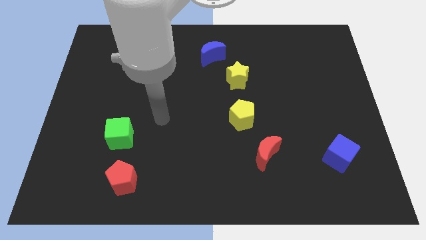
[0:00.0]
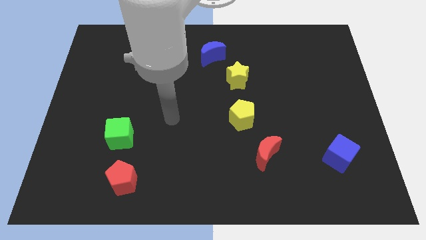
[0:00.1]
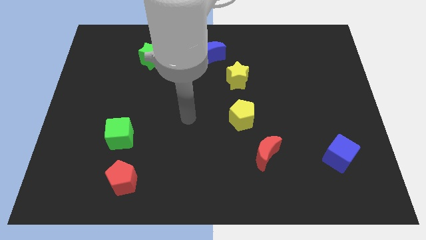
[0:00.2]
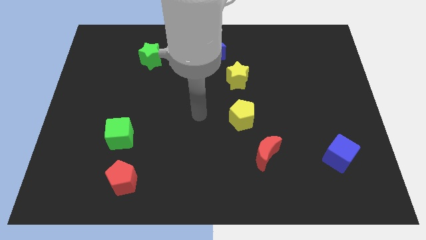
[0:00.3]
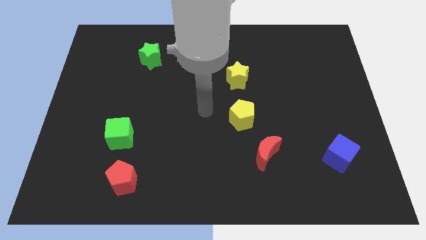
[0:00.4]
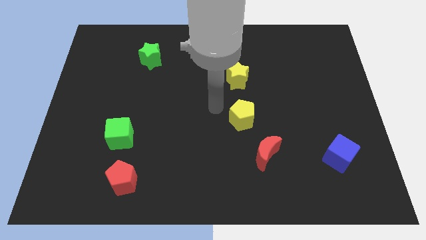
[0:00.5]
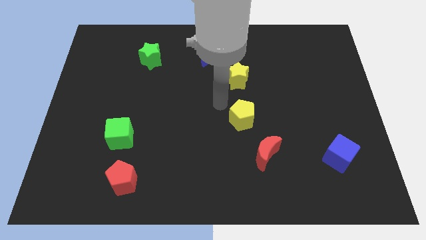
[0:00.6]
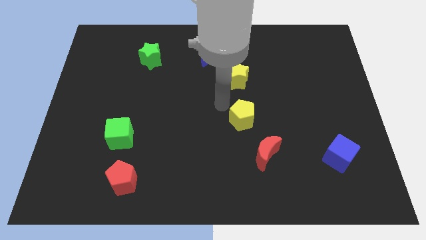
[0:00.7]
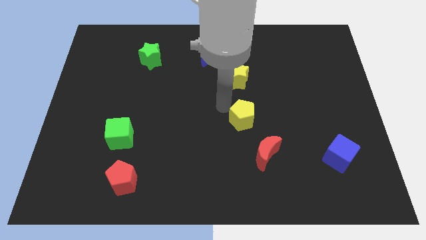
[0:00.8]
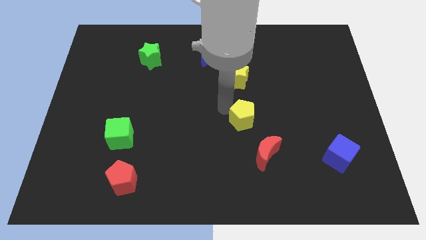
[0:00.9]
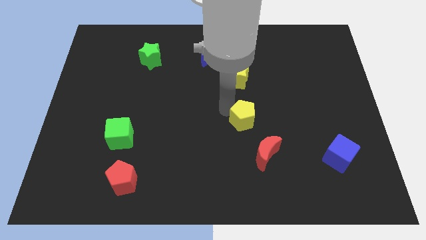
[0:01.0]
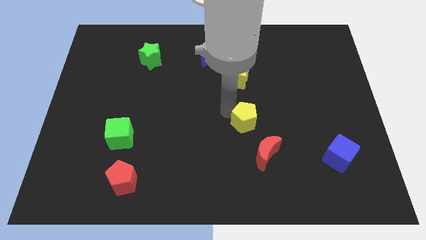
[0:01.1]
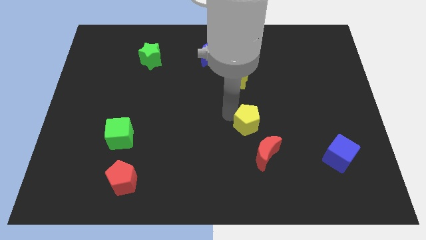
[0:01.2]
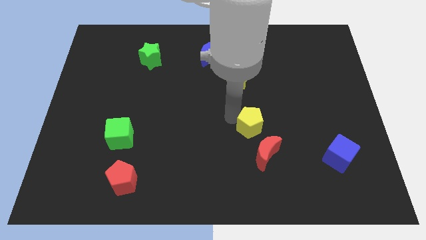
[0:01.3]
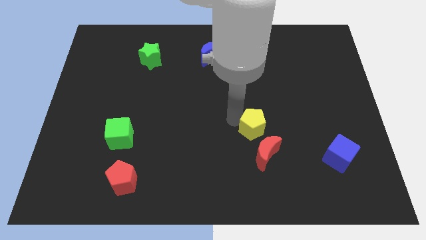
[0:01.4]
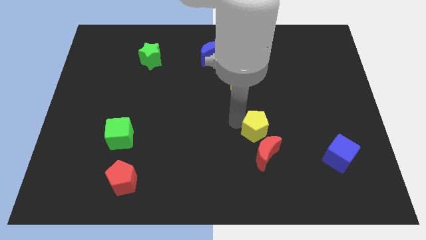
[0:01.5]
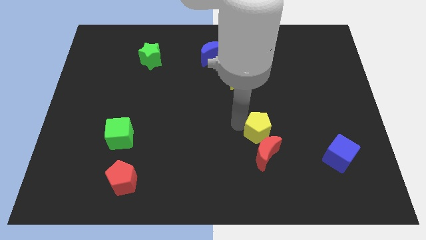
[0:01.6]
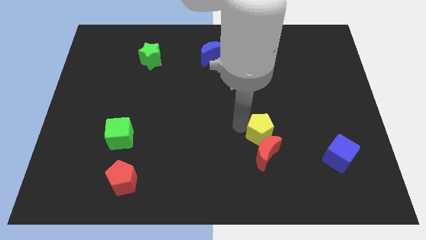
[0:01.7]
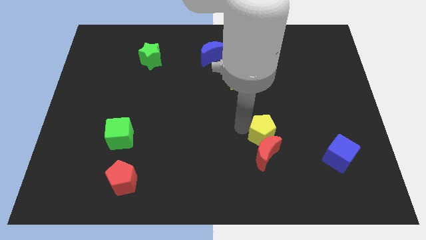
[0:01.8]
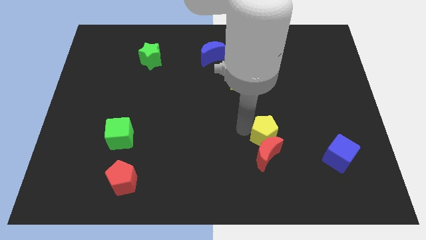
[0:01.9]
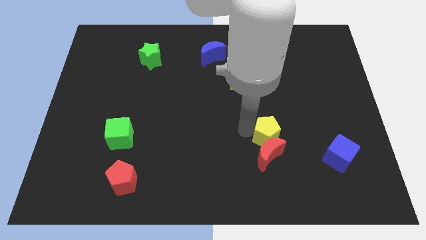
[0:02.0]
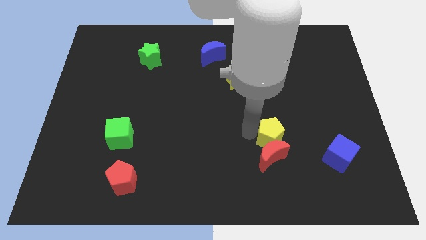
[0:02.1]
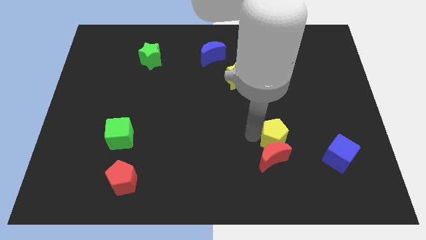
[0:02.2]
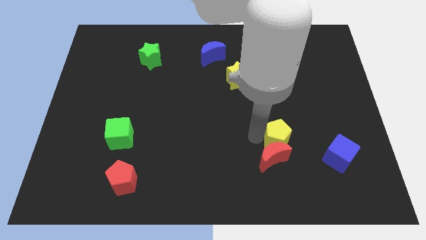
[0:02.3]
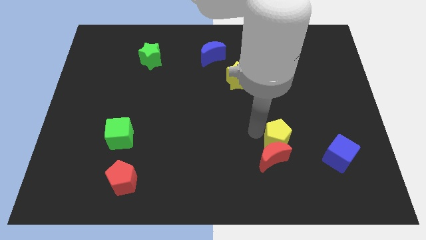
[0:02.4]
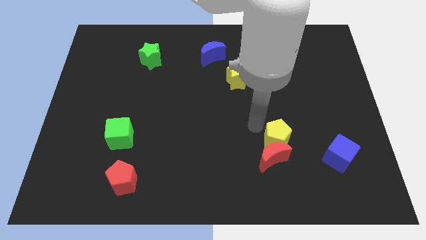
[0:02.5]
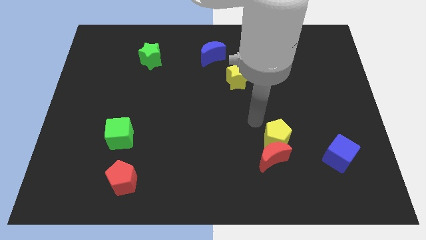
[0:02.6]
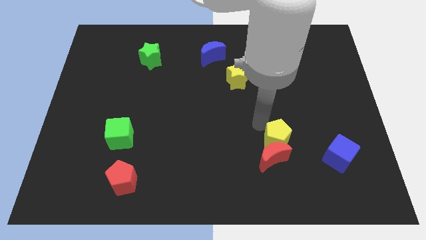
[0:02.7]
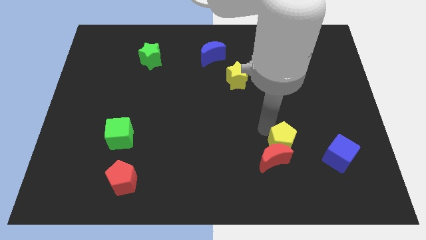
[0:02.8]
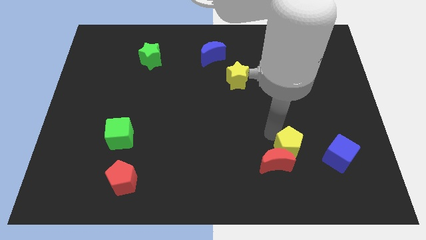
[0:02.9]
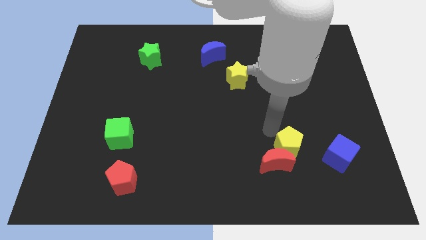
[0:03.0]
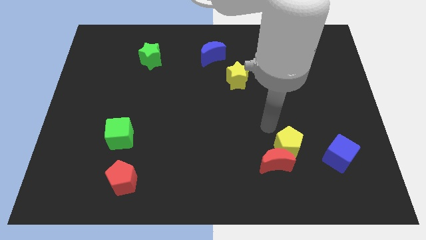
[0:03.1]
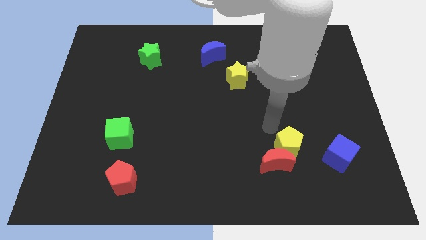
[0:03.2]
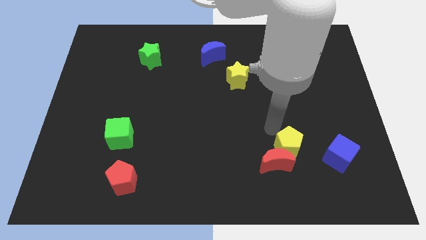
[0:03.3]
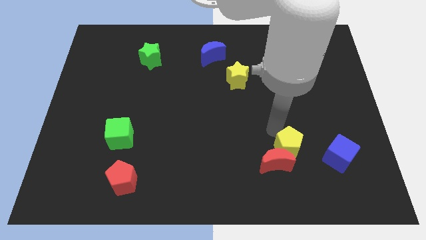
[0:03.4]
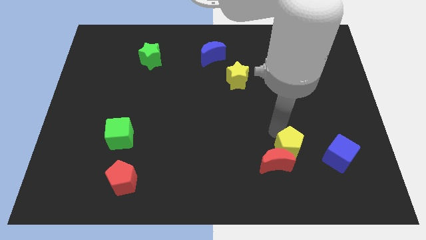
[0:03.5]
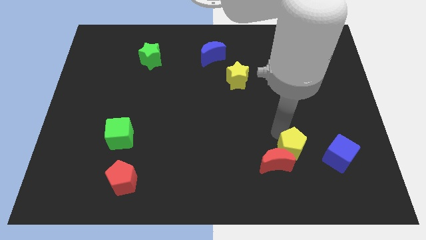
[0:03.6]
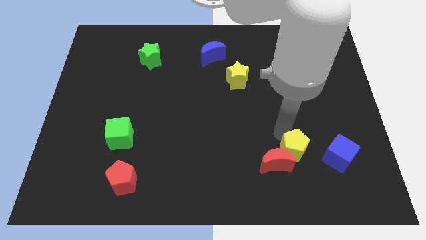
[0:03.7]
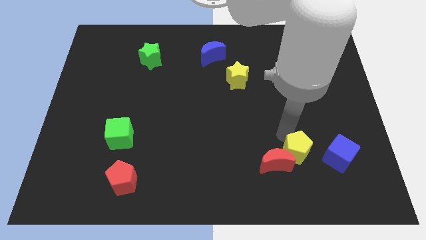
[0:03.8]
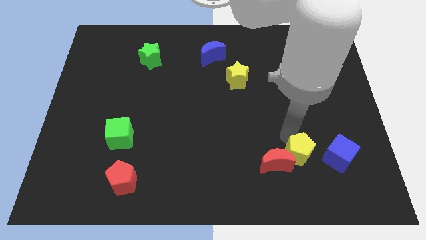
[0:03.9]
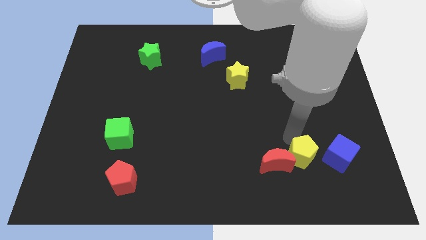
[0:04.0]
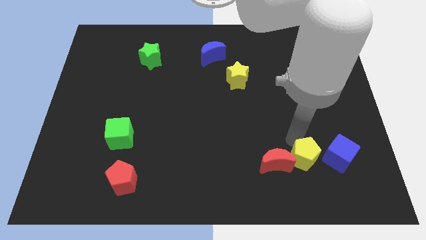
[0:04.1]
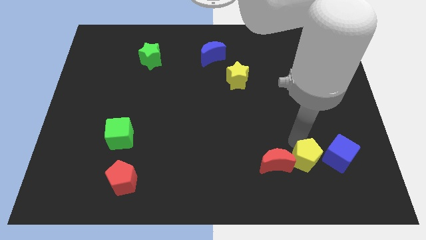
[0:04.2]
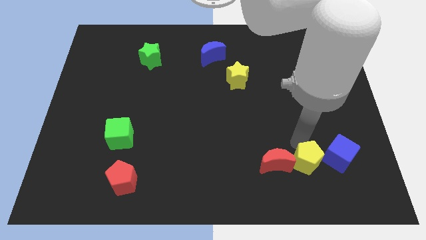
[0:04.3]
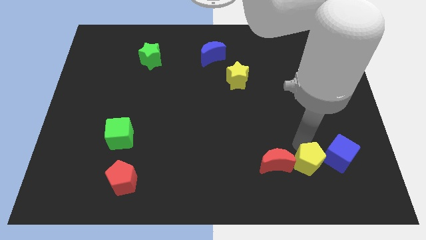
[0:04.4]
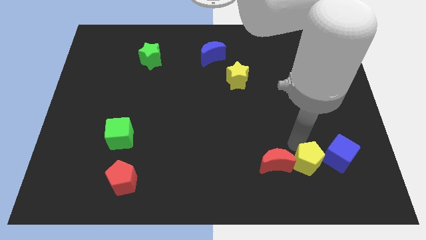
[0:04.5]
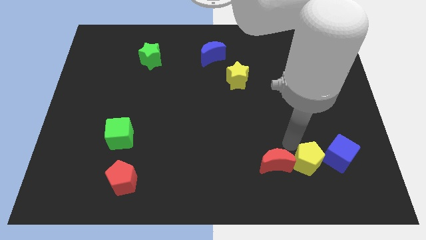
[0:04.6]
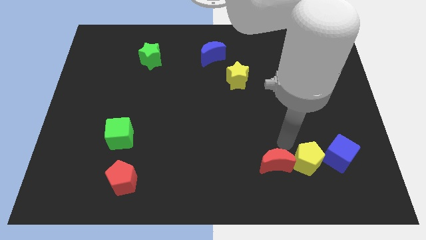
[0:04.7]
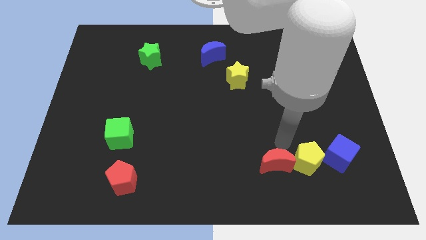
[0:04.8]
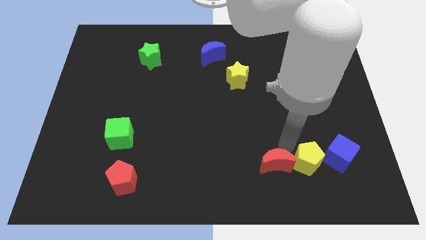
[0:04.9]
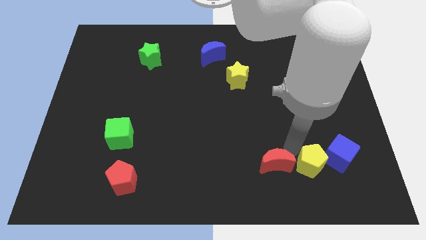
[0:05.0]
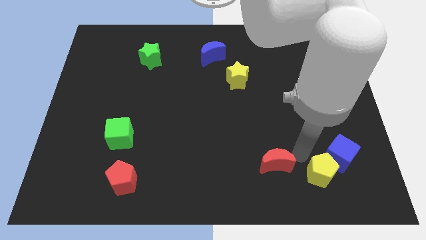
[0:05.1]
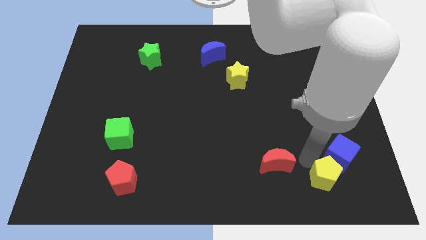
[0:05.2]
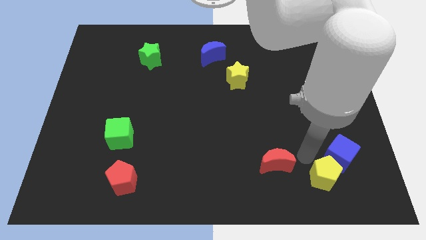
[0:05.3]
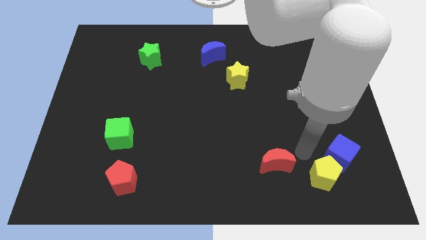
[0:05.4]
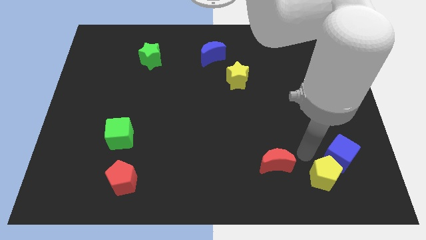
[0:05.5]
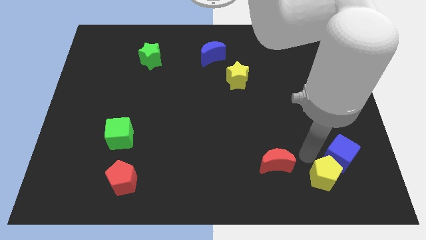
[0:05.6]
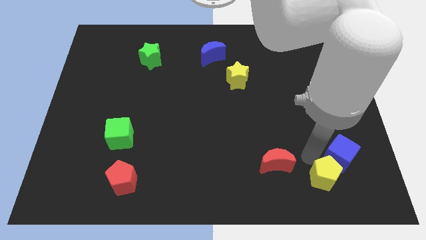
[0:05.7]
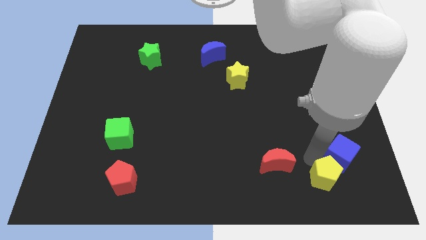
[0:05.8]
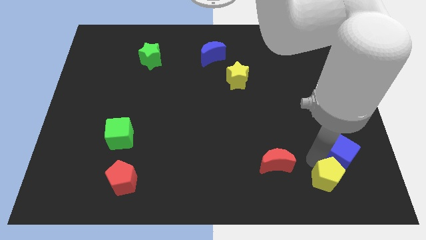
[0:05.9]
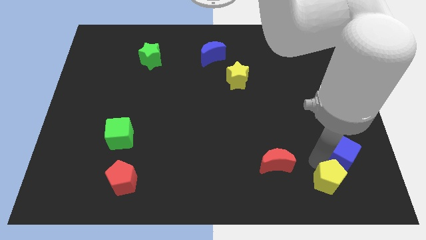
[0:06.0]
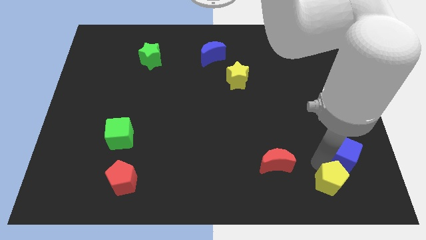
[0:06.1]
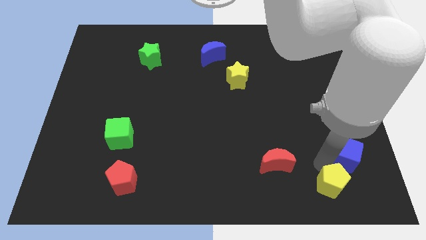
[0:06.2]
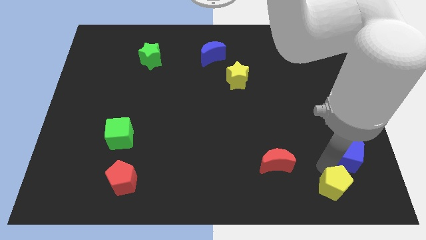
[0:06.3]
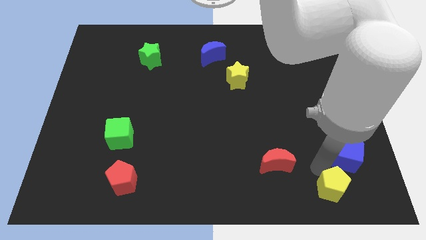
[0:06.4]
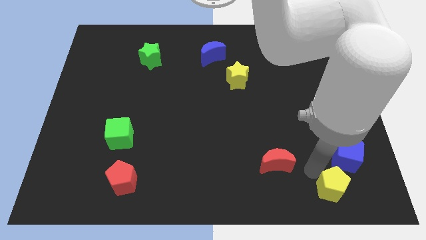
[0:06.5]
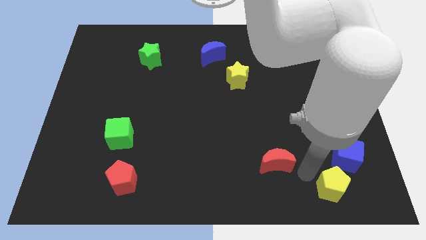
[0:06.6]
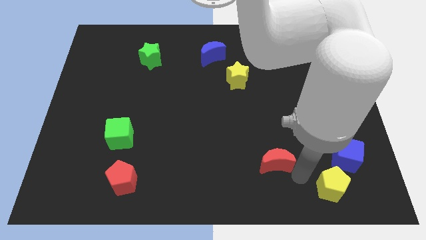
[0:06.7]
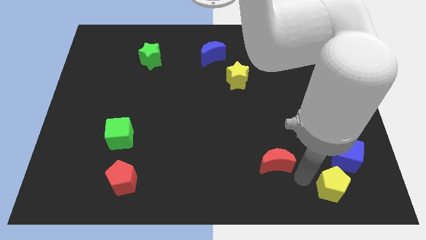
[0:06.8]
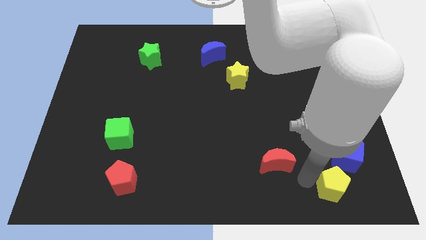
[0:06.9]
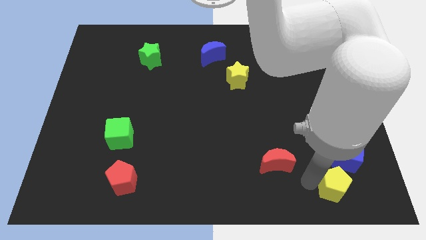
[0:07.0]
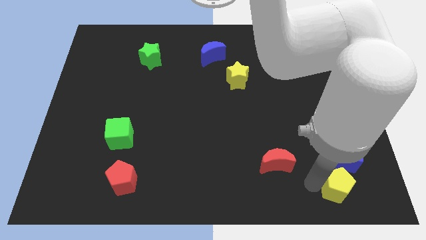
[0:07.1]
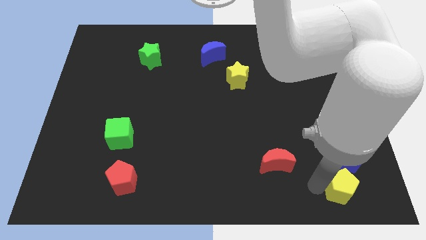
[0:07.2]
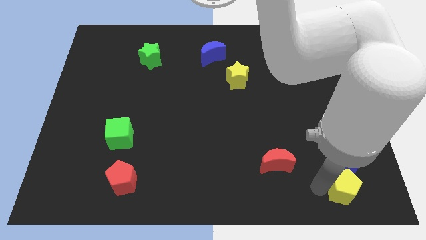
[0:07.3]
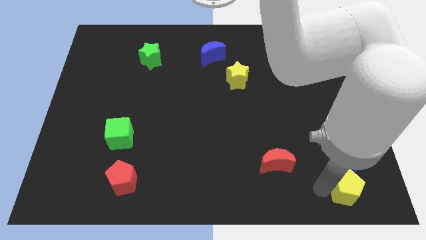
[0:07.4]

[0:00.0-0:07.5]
slide the yellow pentagon to the bottom right corner
